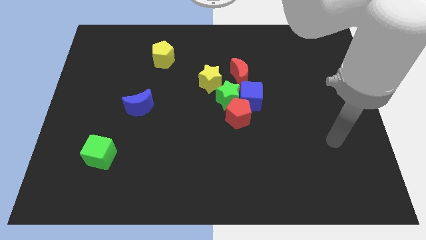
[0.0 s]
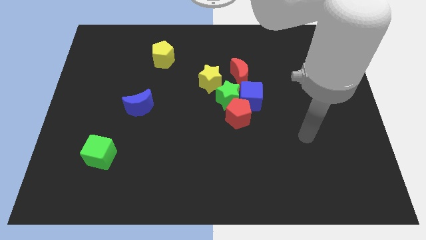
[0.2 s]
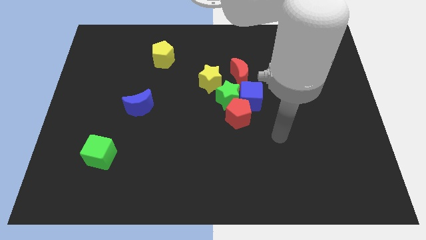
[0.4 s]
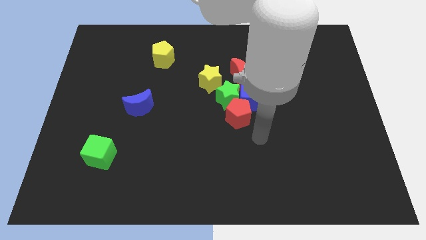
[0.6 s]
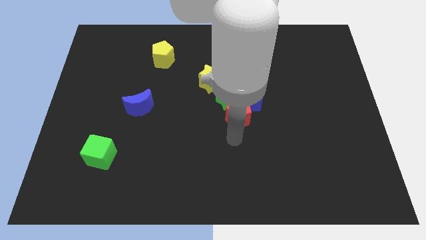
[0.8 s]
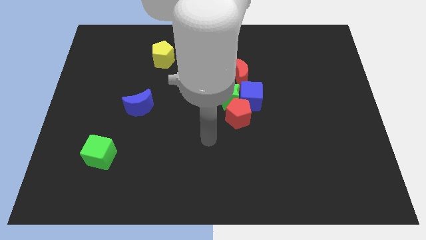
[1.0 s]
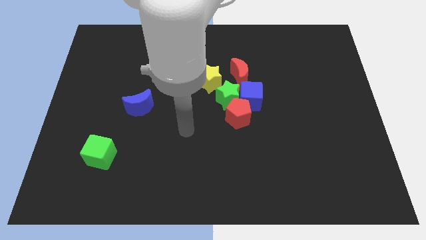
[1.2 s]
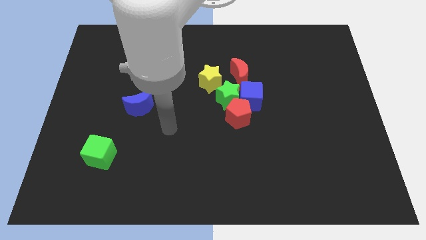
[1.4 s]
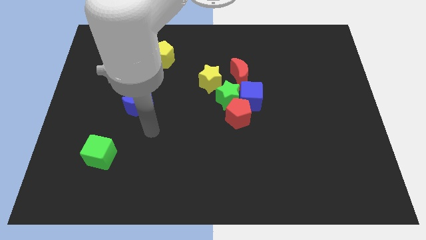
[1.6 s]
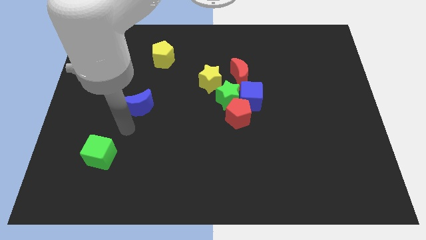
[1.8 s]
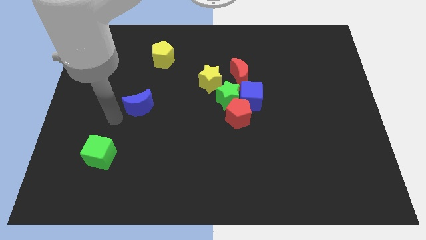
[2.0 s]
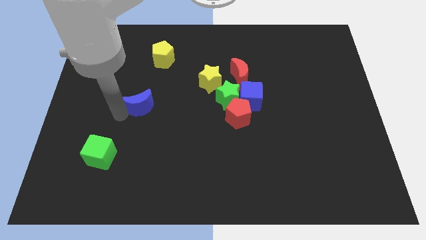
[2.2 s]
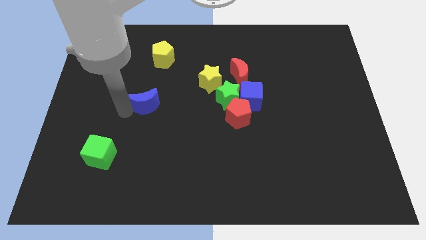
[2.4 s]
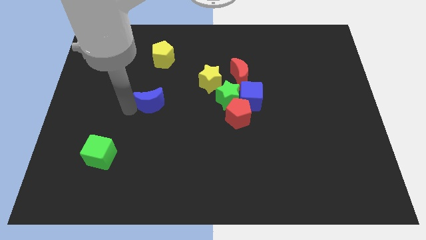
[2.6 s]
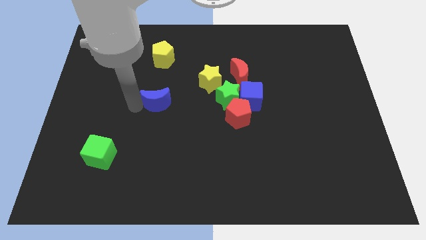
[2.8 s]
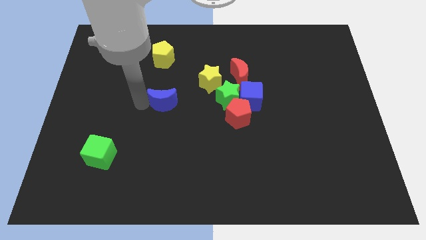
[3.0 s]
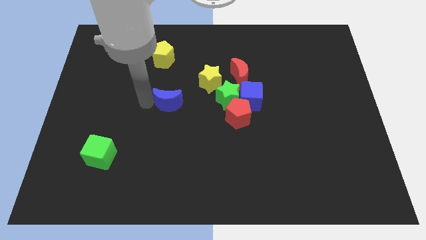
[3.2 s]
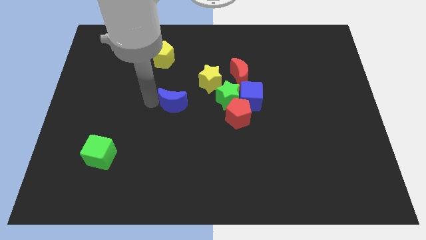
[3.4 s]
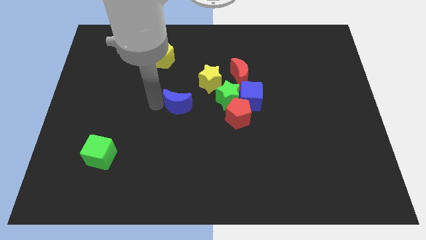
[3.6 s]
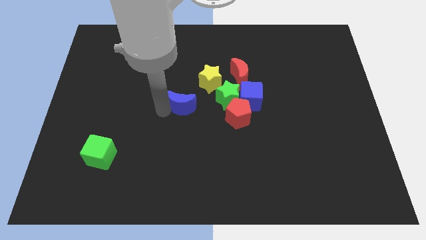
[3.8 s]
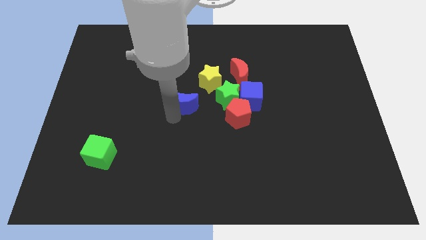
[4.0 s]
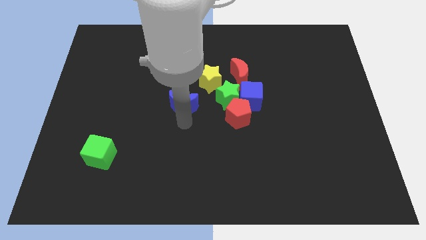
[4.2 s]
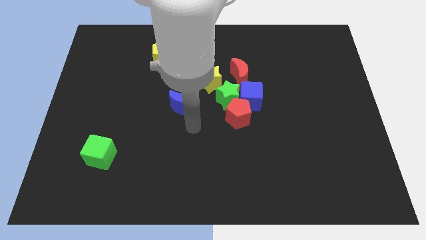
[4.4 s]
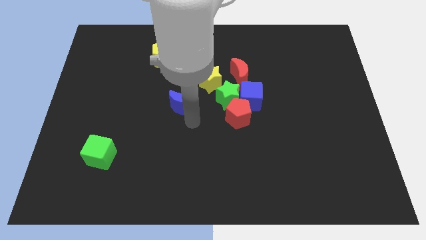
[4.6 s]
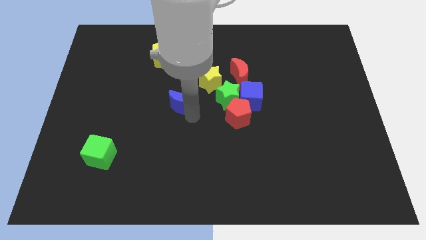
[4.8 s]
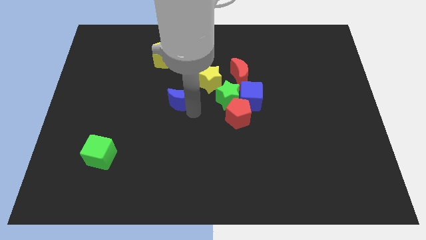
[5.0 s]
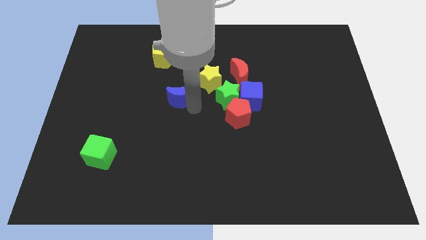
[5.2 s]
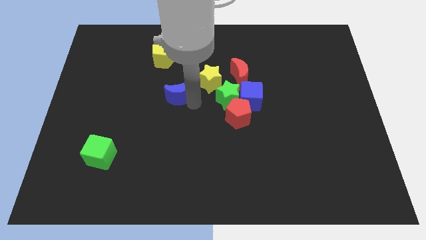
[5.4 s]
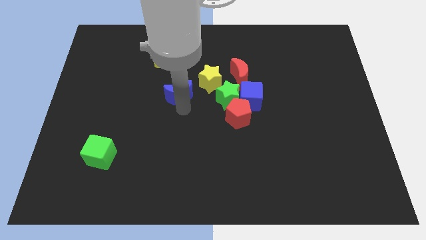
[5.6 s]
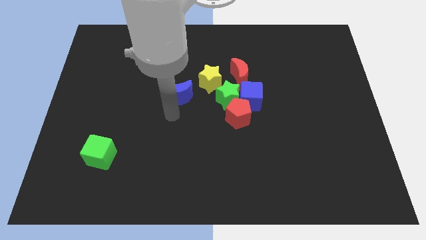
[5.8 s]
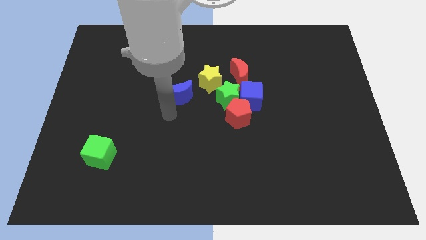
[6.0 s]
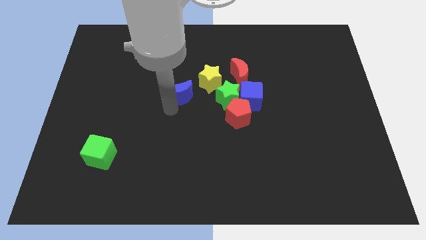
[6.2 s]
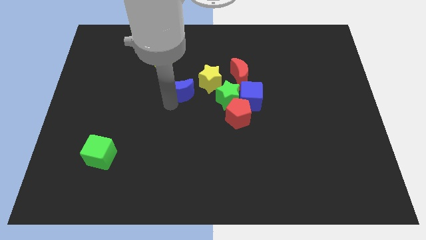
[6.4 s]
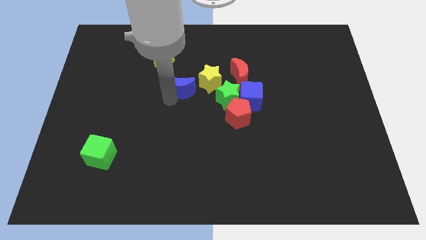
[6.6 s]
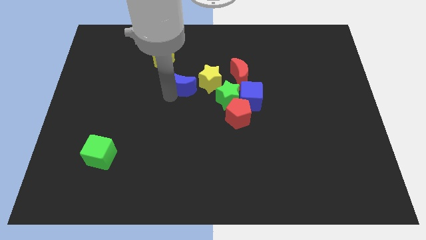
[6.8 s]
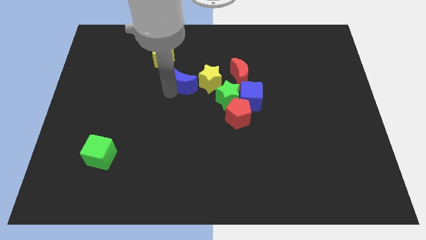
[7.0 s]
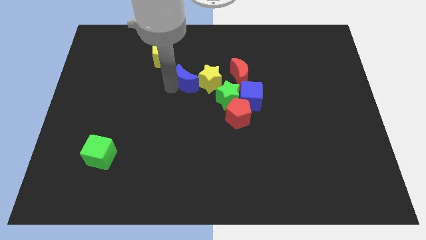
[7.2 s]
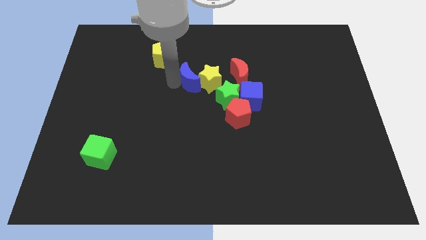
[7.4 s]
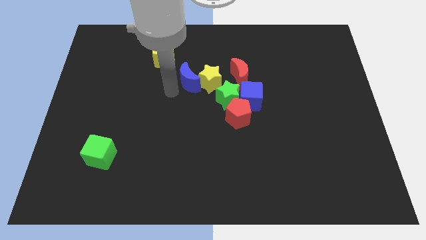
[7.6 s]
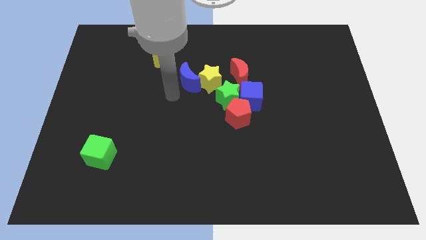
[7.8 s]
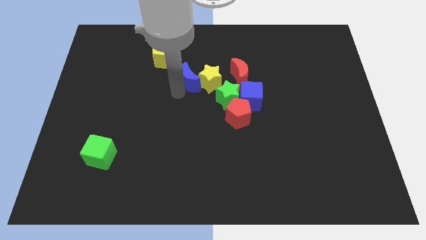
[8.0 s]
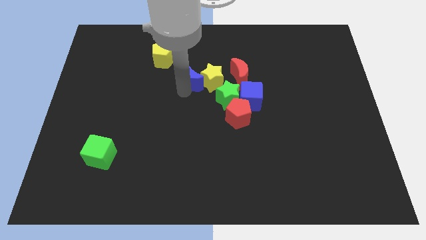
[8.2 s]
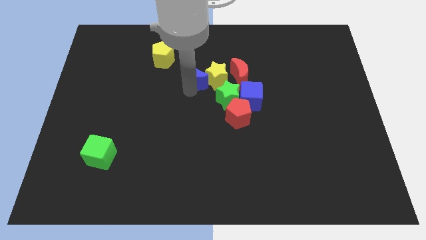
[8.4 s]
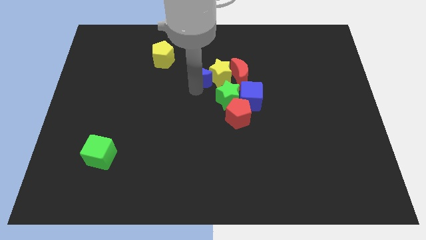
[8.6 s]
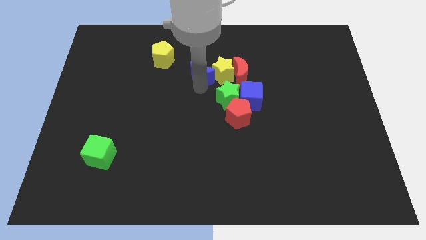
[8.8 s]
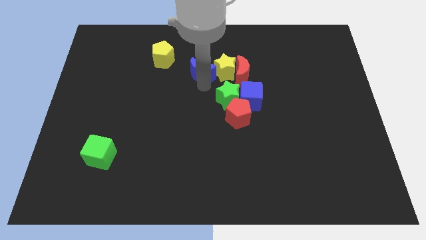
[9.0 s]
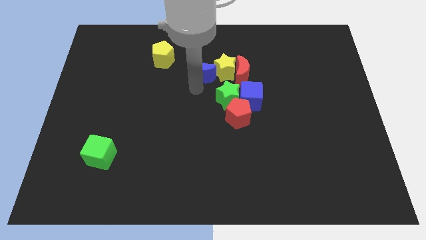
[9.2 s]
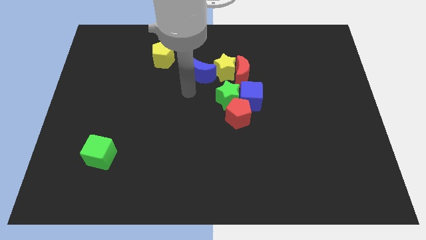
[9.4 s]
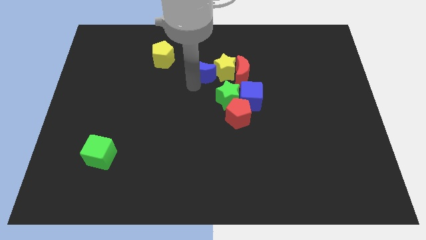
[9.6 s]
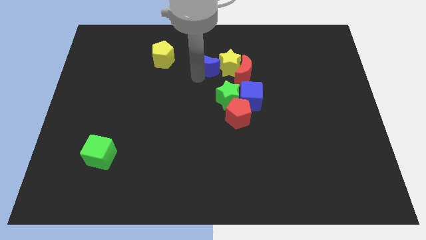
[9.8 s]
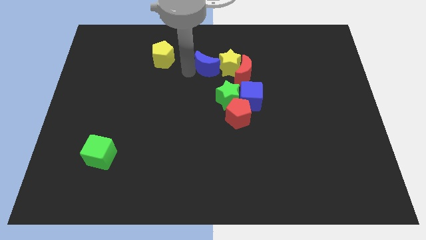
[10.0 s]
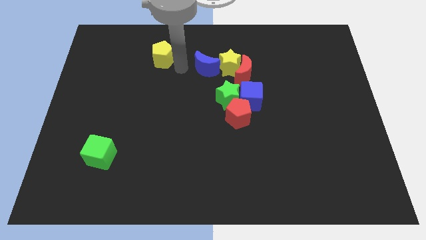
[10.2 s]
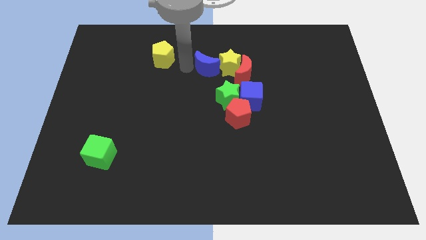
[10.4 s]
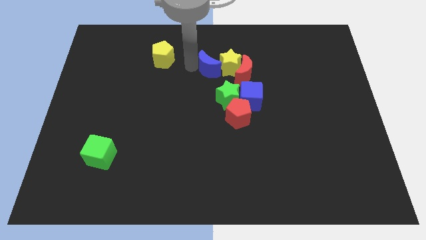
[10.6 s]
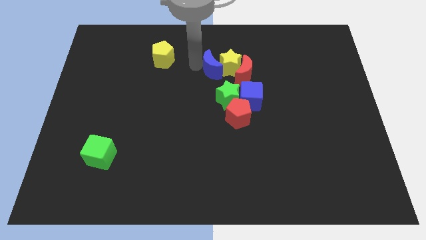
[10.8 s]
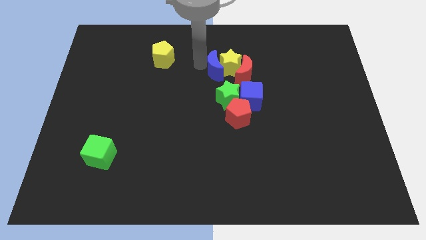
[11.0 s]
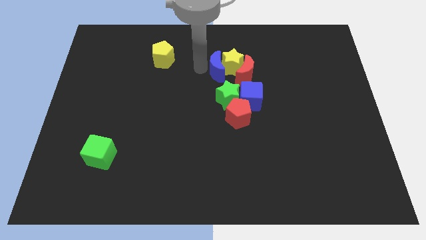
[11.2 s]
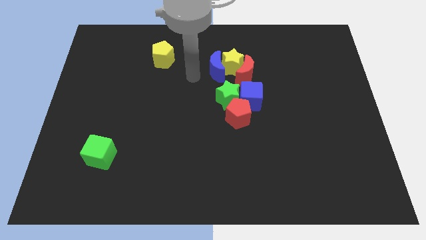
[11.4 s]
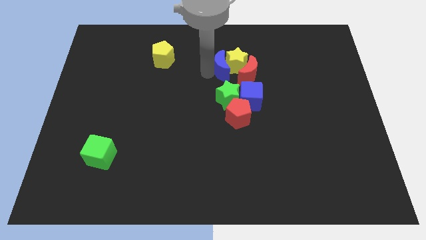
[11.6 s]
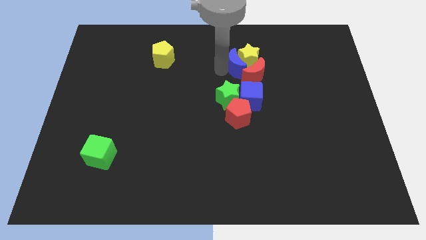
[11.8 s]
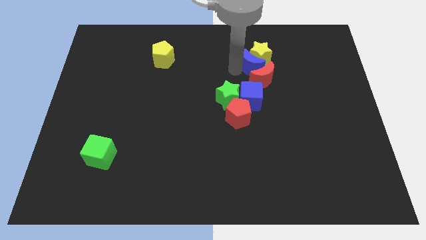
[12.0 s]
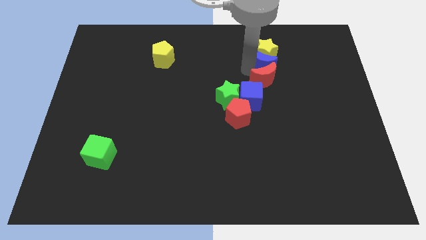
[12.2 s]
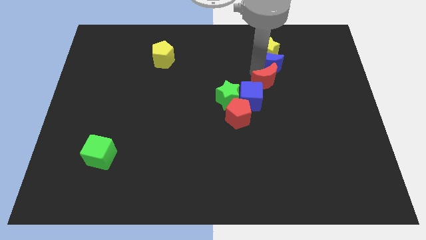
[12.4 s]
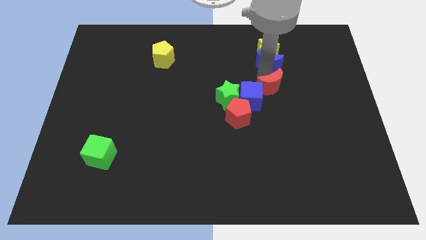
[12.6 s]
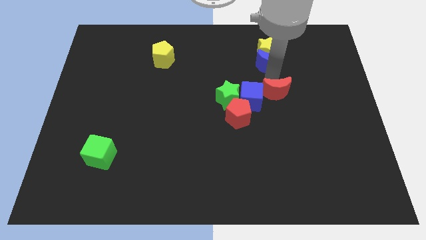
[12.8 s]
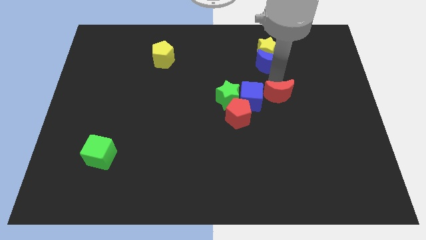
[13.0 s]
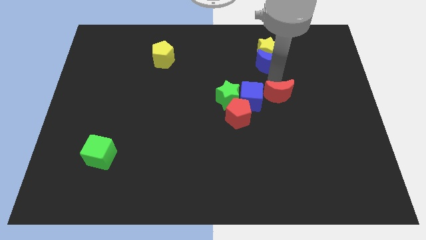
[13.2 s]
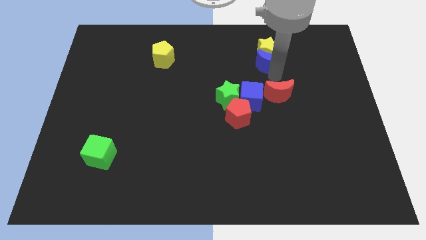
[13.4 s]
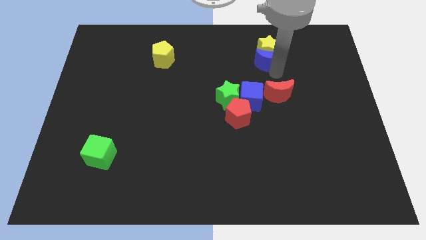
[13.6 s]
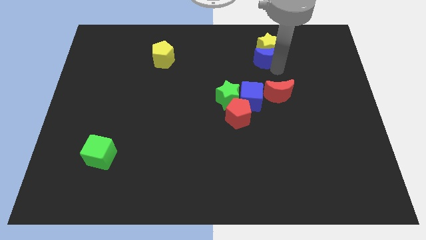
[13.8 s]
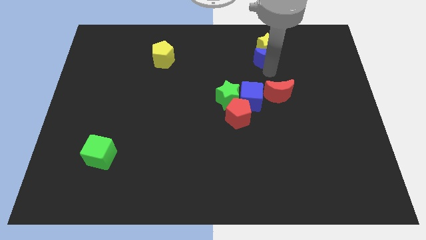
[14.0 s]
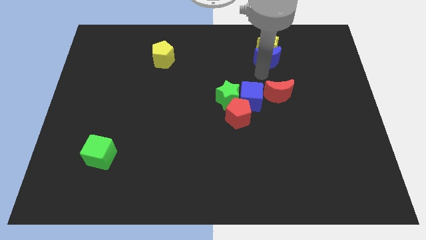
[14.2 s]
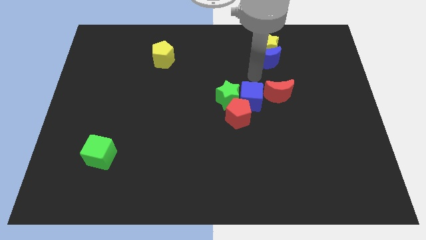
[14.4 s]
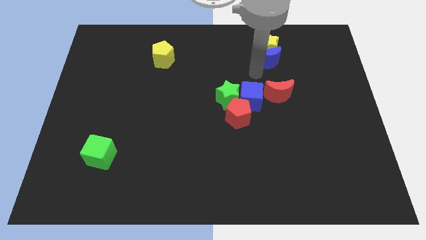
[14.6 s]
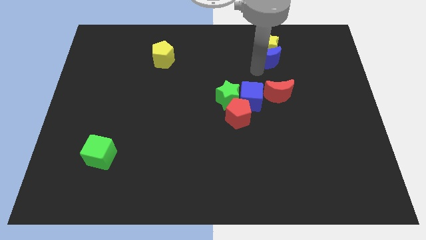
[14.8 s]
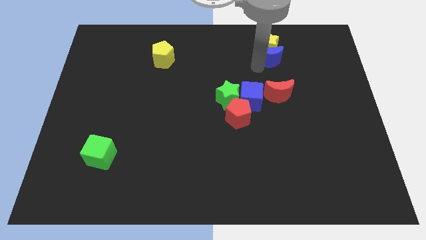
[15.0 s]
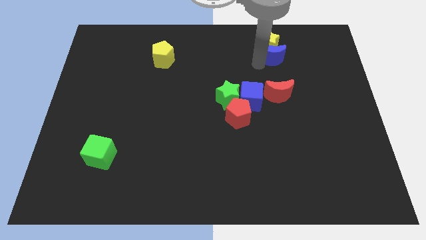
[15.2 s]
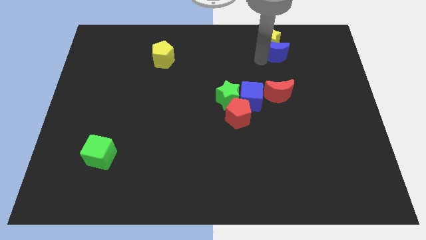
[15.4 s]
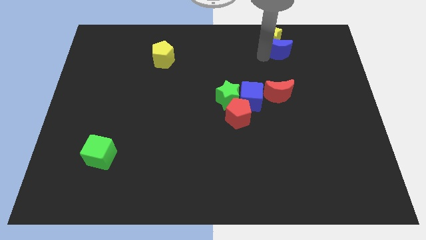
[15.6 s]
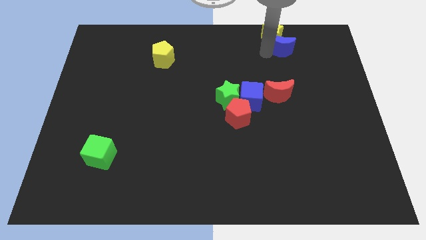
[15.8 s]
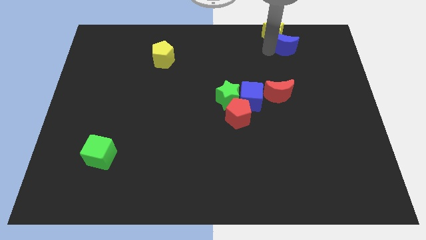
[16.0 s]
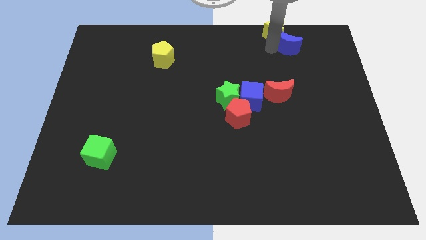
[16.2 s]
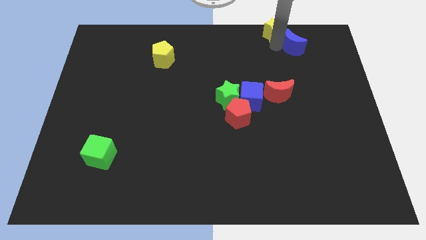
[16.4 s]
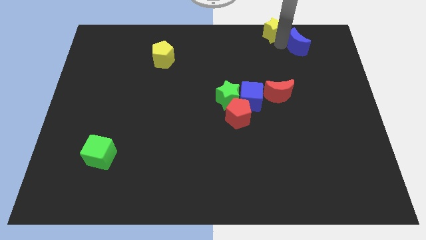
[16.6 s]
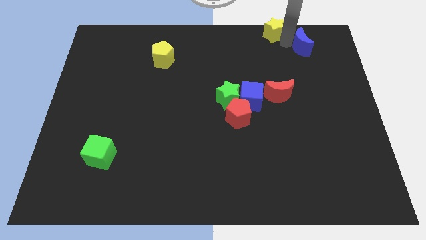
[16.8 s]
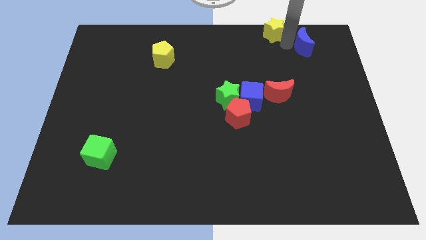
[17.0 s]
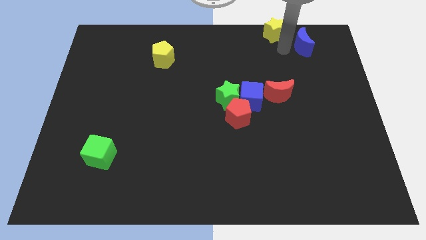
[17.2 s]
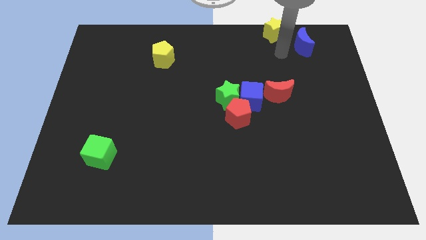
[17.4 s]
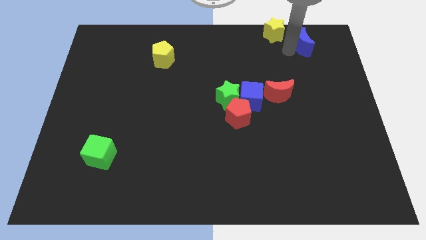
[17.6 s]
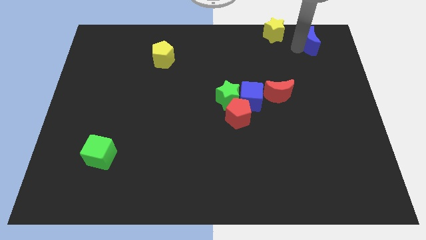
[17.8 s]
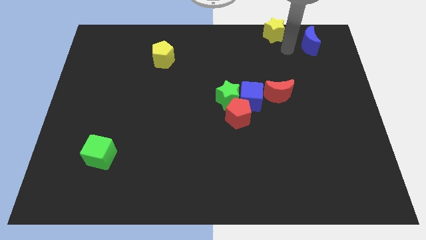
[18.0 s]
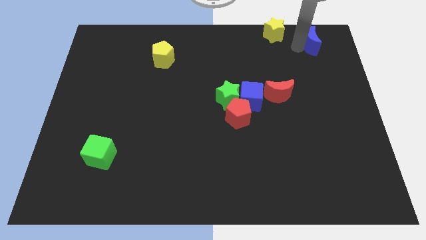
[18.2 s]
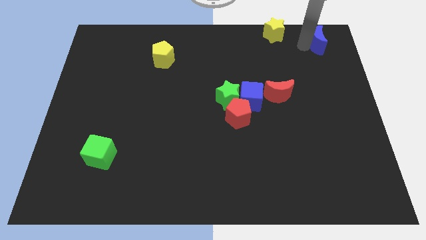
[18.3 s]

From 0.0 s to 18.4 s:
move the blue moon to the top right of the board
